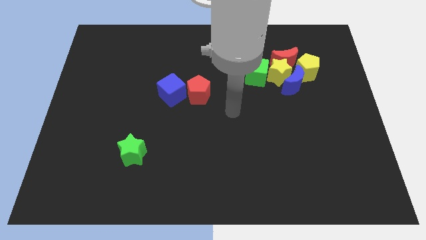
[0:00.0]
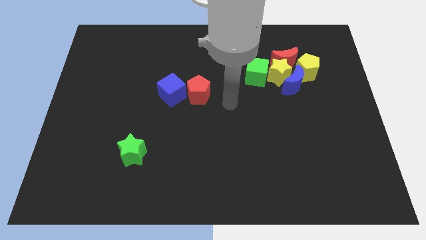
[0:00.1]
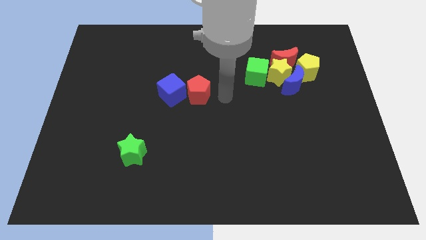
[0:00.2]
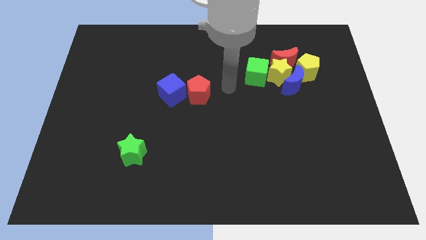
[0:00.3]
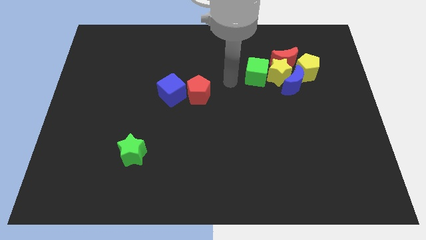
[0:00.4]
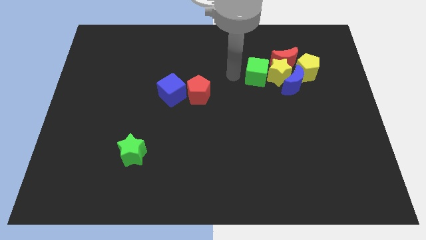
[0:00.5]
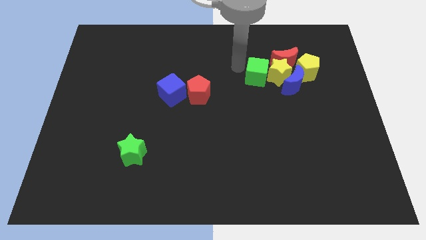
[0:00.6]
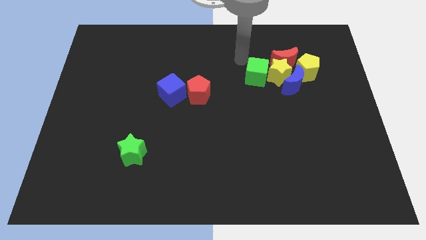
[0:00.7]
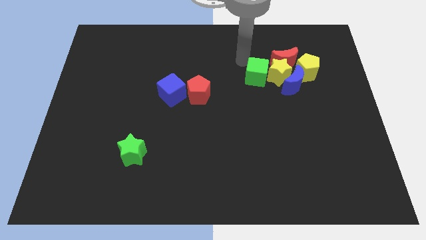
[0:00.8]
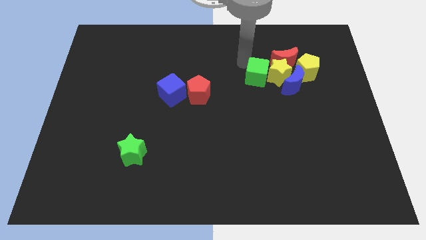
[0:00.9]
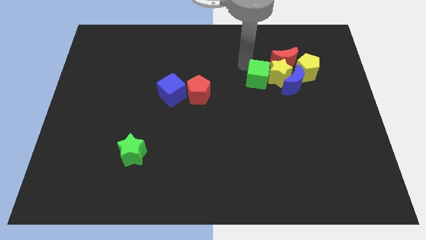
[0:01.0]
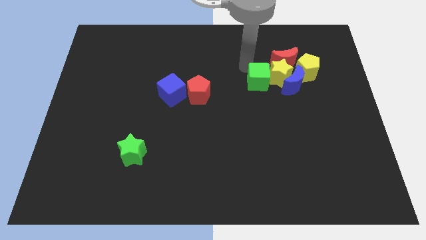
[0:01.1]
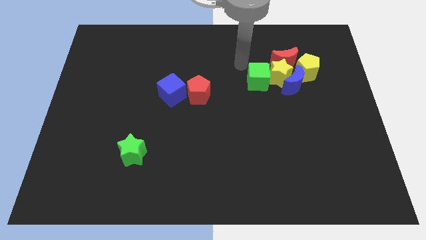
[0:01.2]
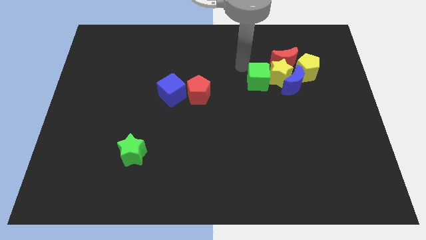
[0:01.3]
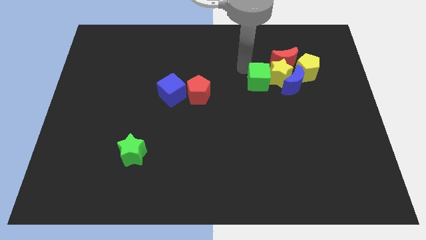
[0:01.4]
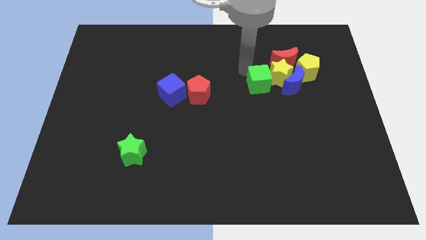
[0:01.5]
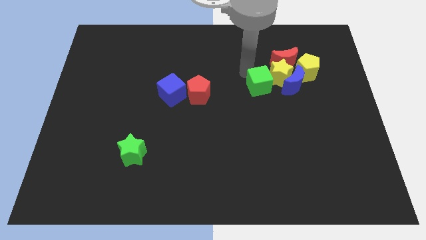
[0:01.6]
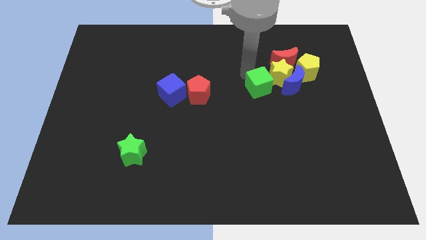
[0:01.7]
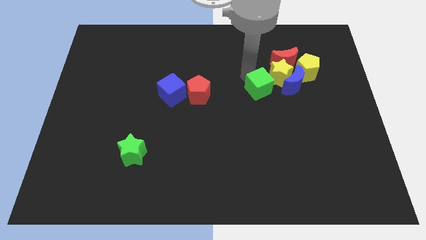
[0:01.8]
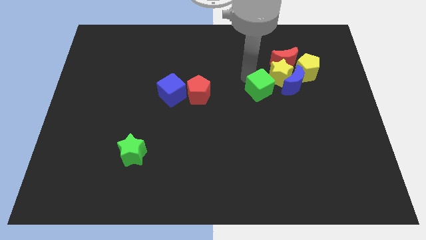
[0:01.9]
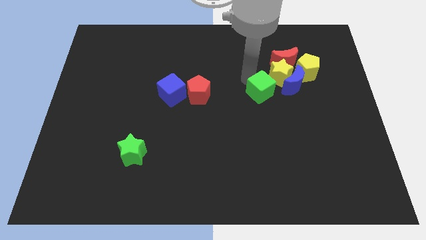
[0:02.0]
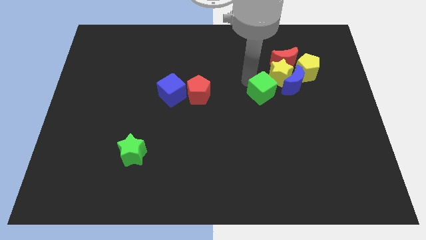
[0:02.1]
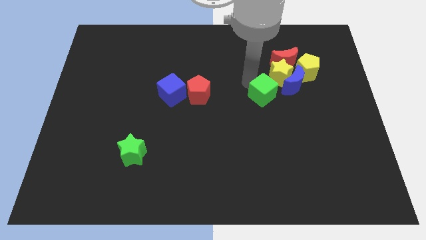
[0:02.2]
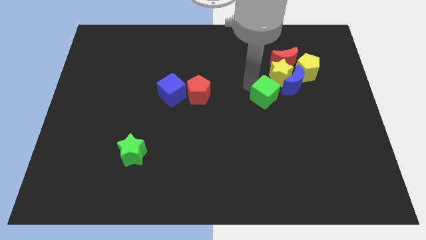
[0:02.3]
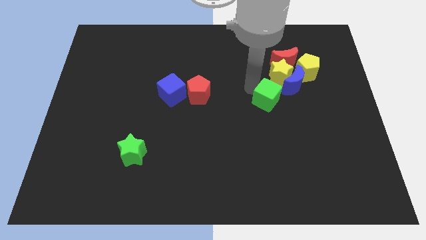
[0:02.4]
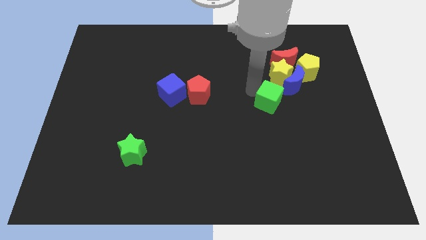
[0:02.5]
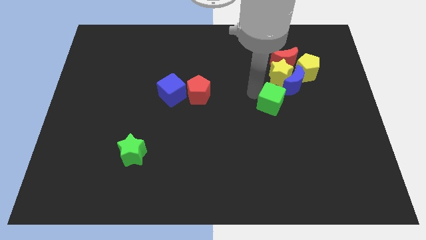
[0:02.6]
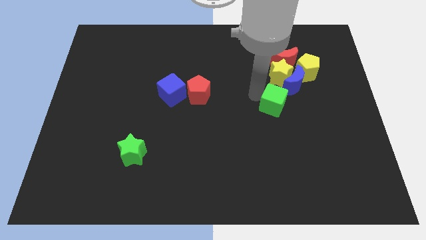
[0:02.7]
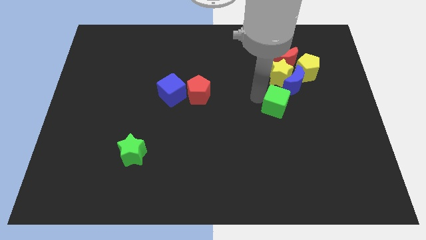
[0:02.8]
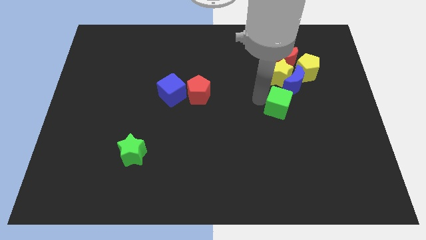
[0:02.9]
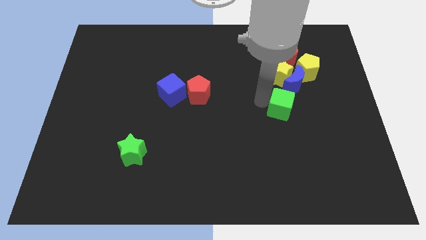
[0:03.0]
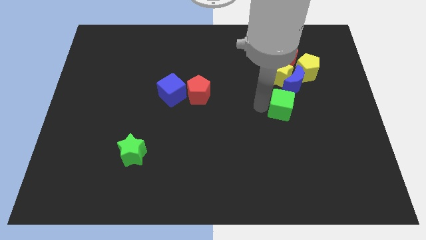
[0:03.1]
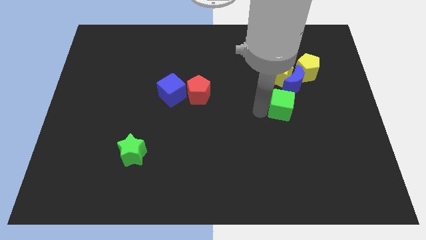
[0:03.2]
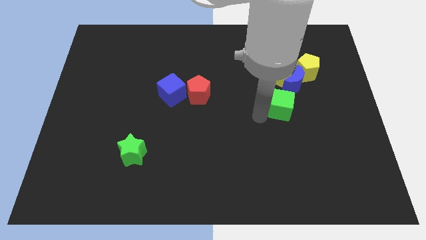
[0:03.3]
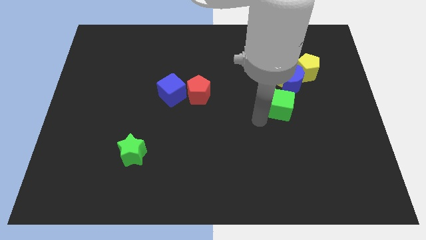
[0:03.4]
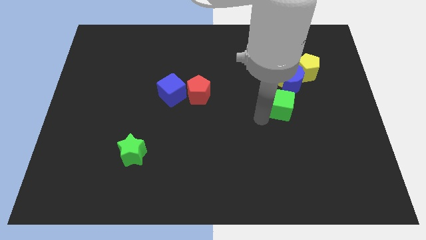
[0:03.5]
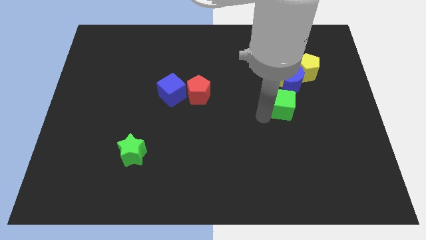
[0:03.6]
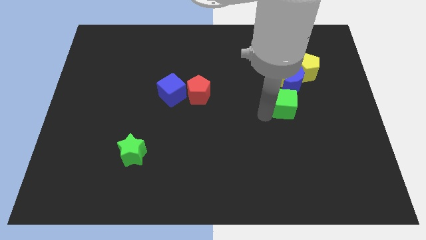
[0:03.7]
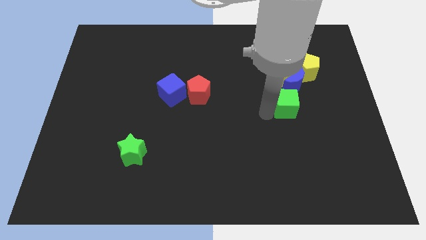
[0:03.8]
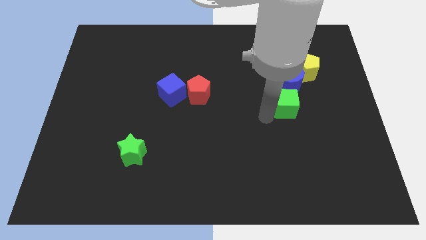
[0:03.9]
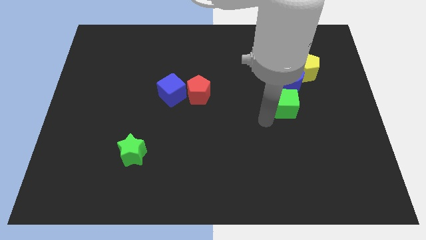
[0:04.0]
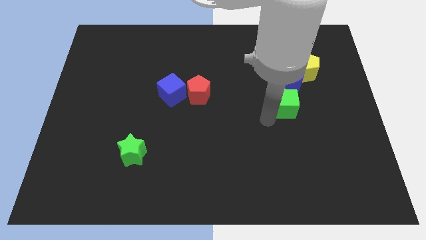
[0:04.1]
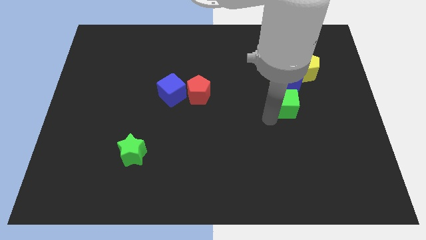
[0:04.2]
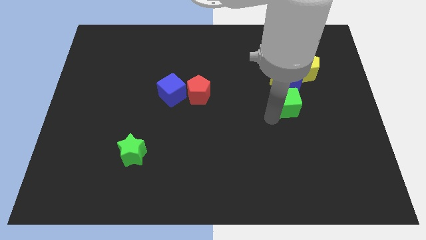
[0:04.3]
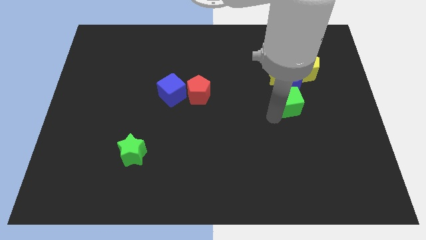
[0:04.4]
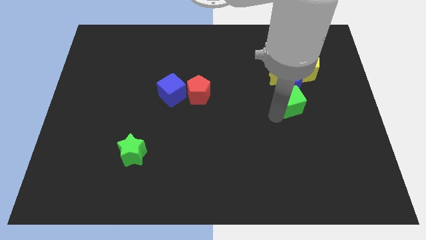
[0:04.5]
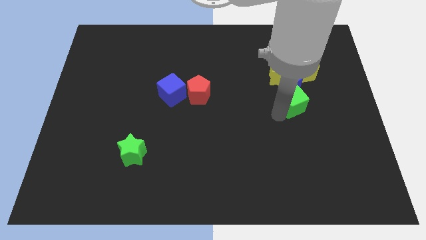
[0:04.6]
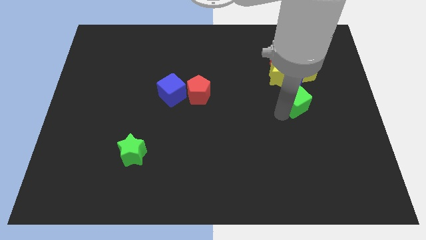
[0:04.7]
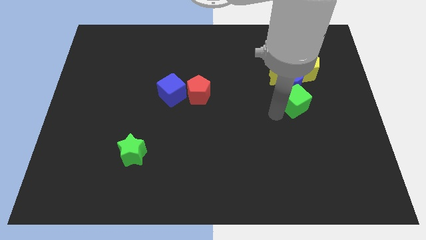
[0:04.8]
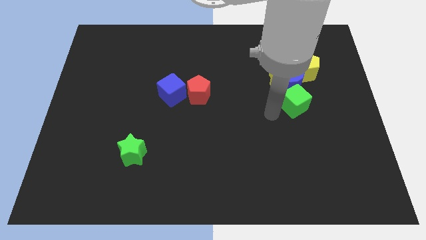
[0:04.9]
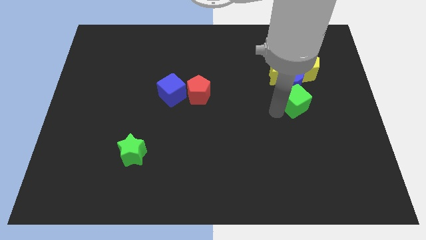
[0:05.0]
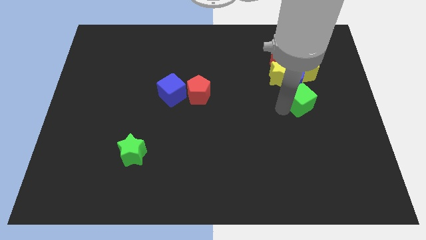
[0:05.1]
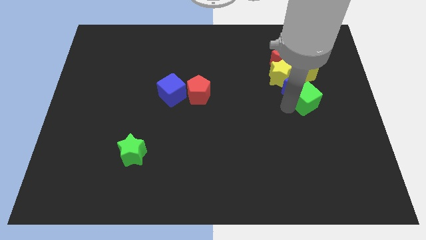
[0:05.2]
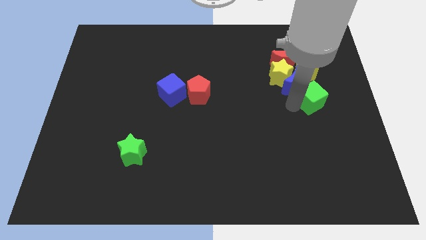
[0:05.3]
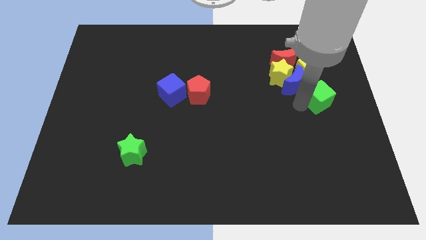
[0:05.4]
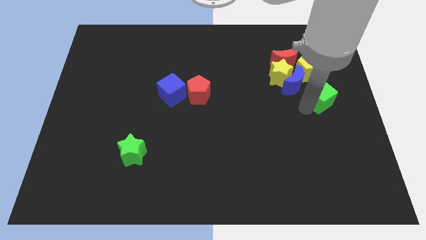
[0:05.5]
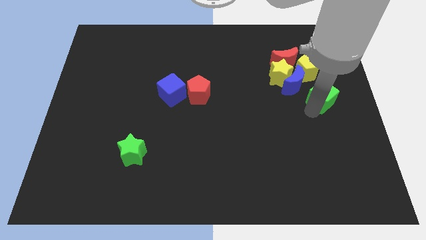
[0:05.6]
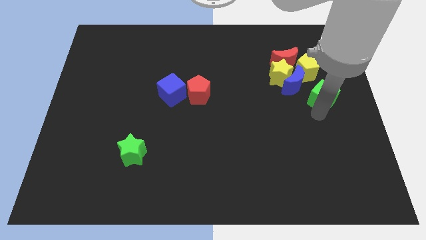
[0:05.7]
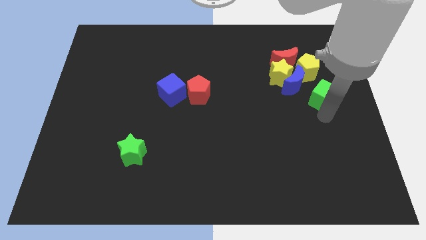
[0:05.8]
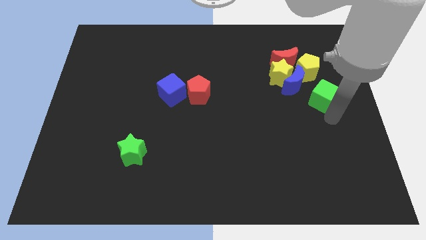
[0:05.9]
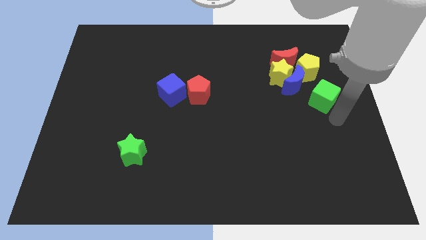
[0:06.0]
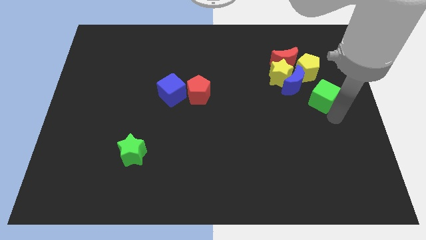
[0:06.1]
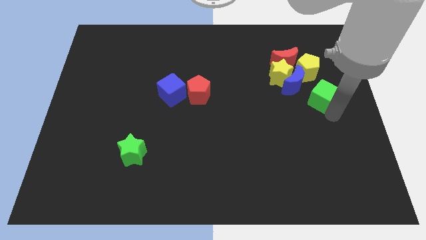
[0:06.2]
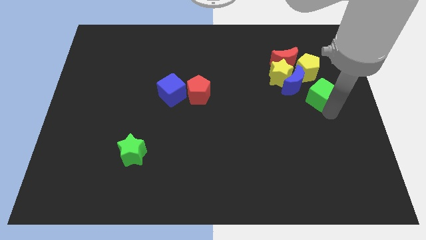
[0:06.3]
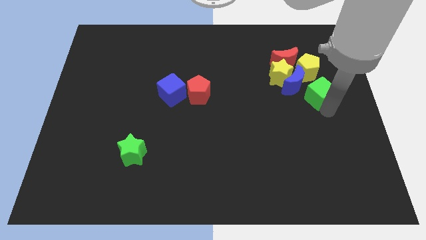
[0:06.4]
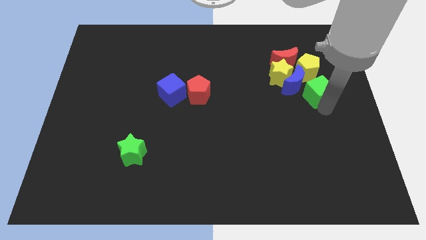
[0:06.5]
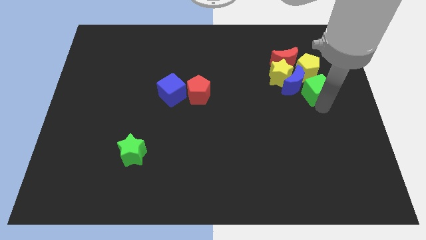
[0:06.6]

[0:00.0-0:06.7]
slide the green cube diagonally down and to the right of the red moon
